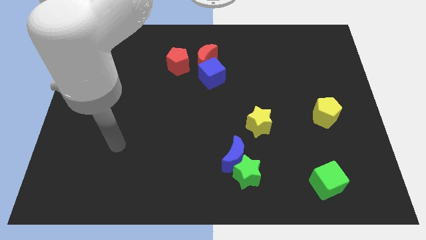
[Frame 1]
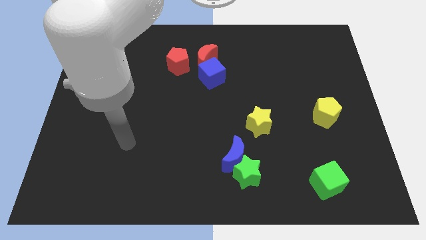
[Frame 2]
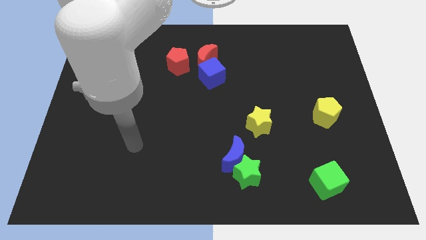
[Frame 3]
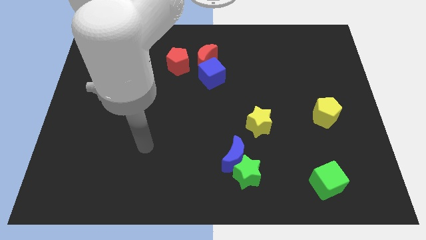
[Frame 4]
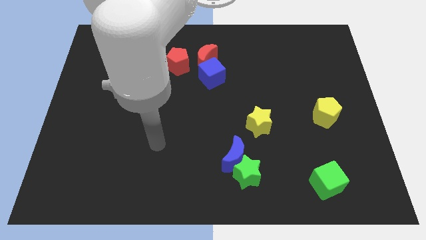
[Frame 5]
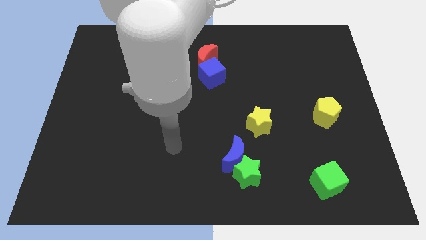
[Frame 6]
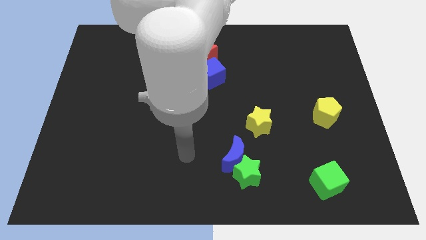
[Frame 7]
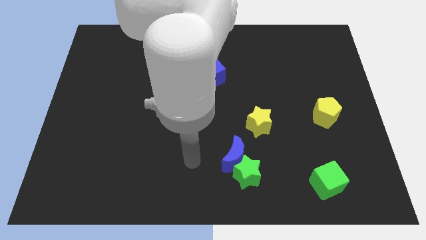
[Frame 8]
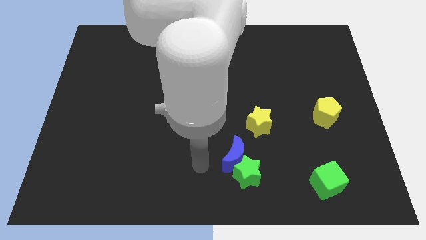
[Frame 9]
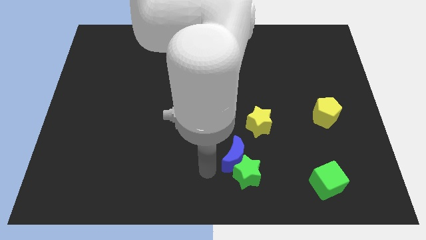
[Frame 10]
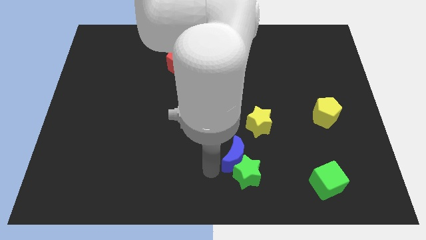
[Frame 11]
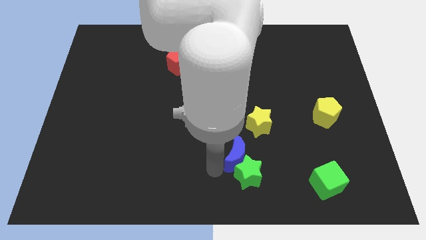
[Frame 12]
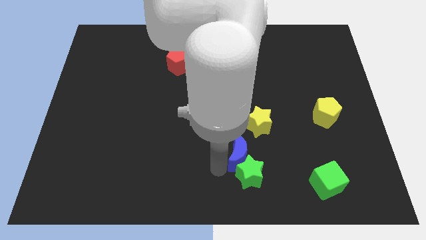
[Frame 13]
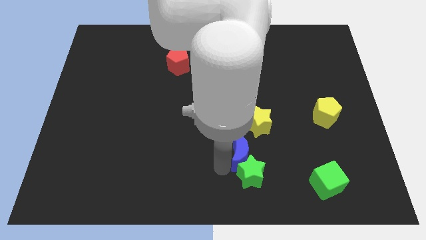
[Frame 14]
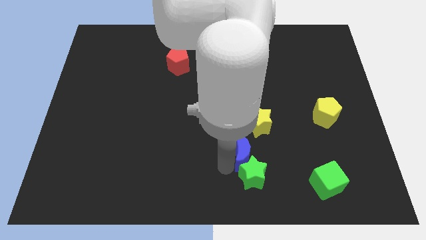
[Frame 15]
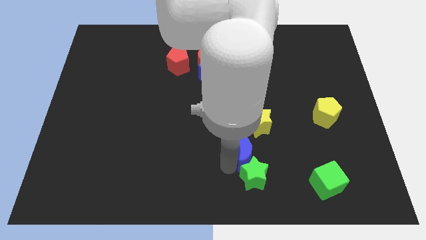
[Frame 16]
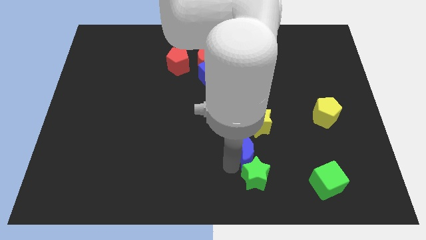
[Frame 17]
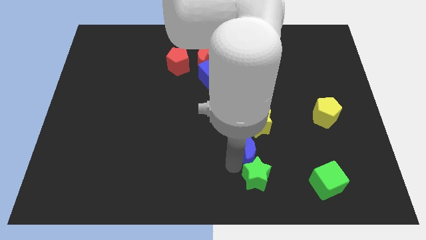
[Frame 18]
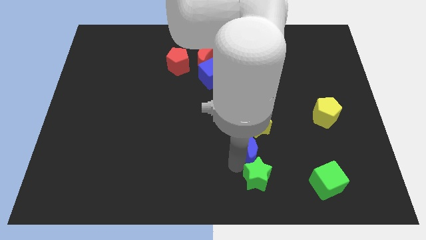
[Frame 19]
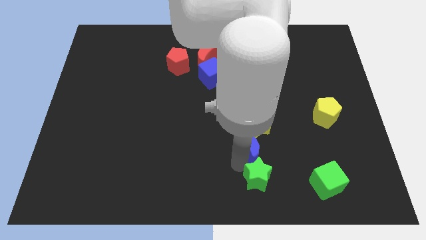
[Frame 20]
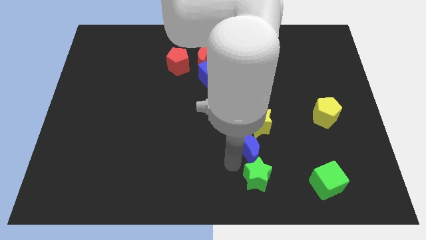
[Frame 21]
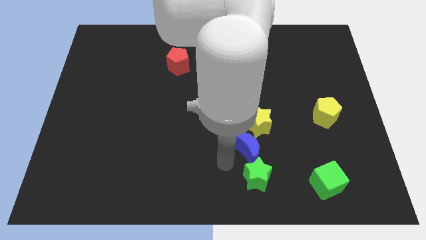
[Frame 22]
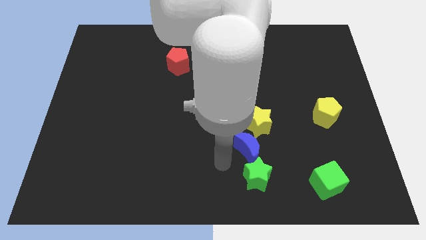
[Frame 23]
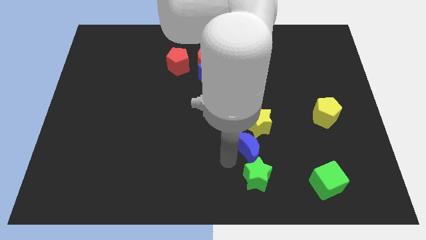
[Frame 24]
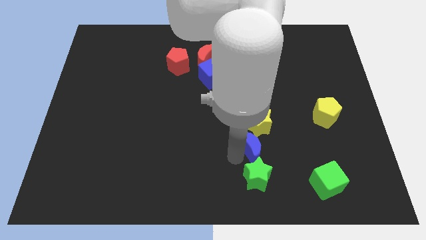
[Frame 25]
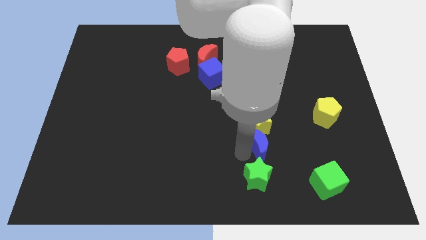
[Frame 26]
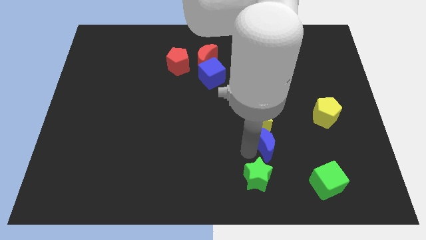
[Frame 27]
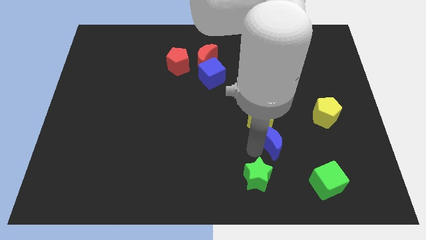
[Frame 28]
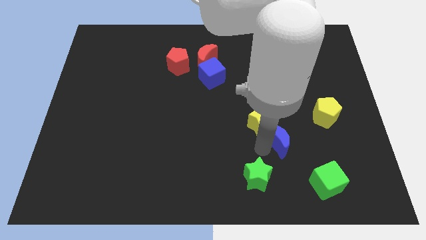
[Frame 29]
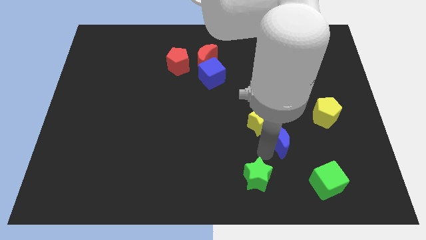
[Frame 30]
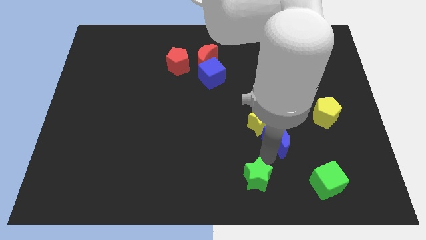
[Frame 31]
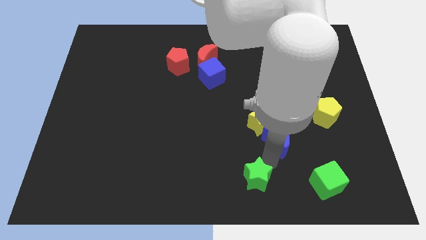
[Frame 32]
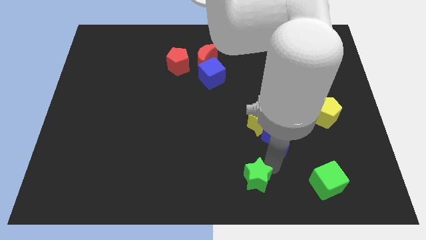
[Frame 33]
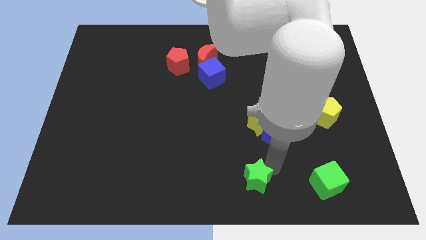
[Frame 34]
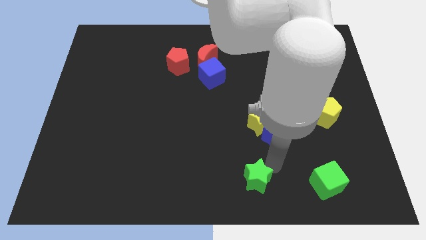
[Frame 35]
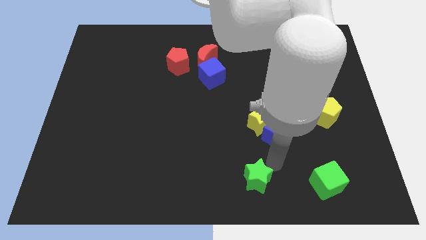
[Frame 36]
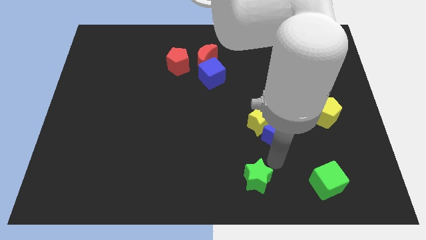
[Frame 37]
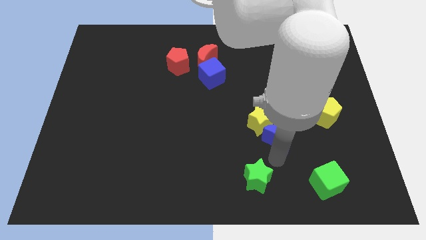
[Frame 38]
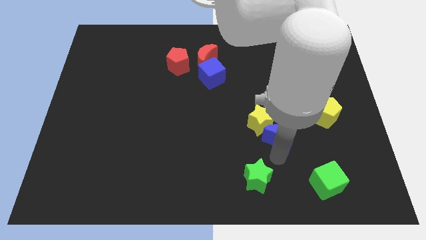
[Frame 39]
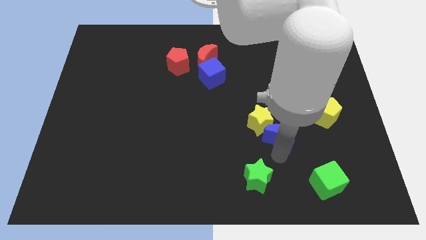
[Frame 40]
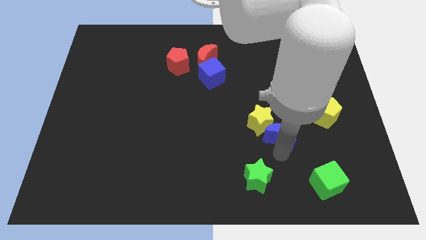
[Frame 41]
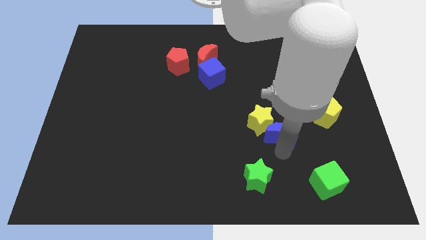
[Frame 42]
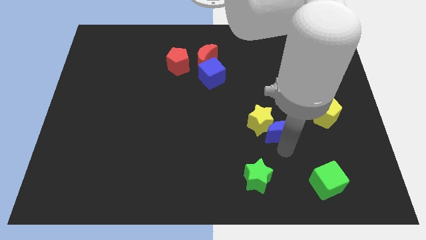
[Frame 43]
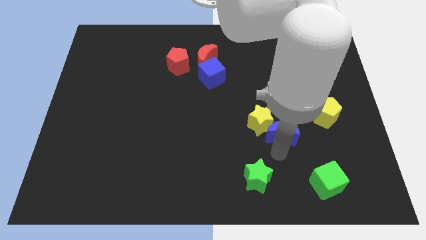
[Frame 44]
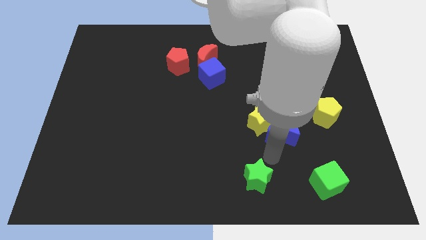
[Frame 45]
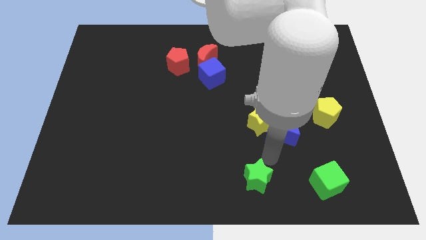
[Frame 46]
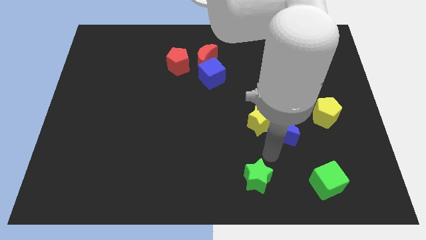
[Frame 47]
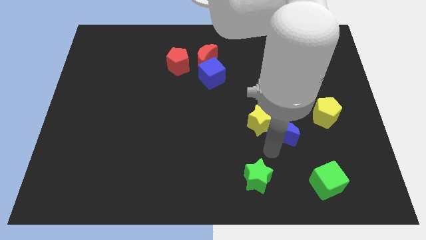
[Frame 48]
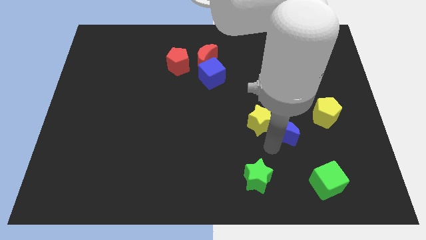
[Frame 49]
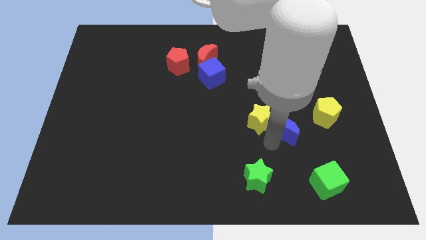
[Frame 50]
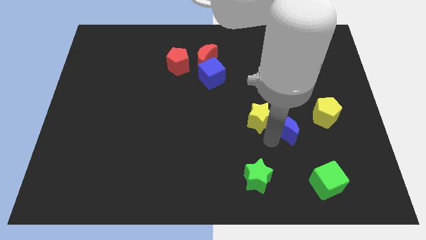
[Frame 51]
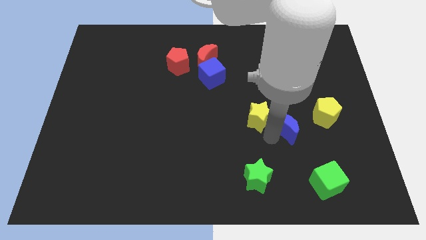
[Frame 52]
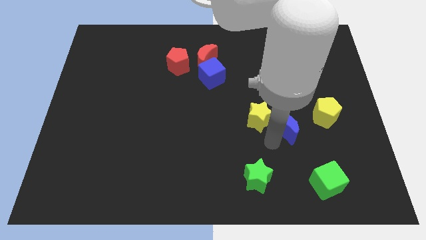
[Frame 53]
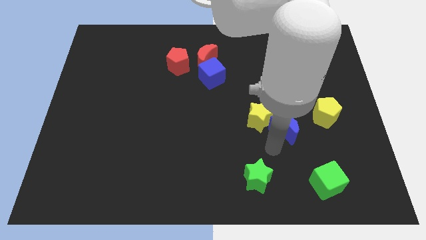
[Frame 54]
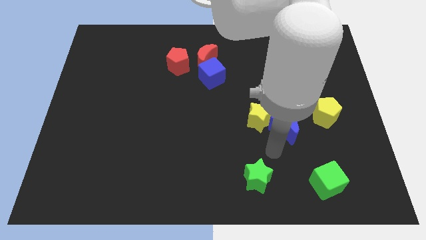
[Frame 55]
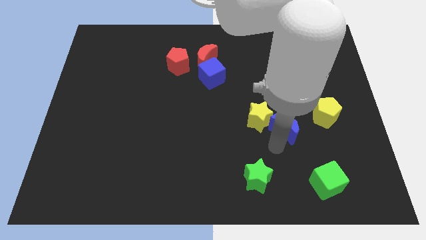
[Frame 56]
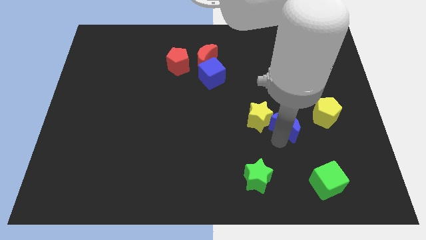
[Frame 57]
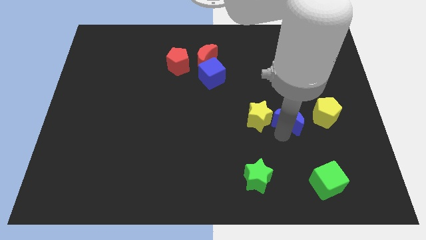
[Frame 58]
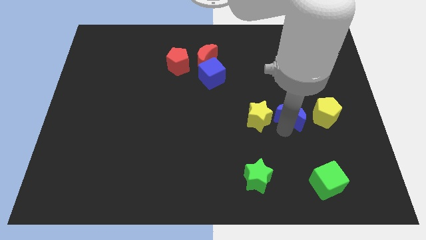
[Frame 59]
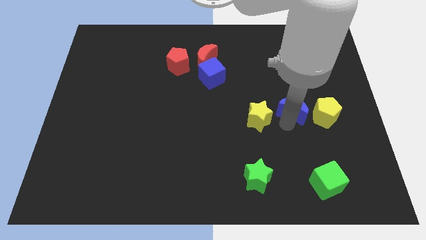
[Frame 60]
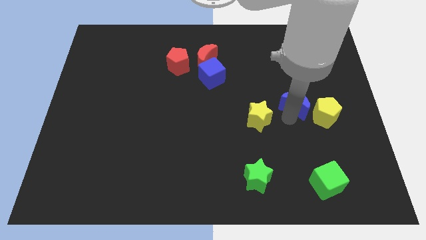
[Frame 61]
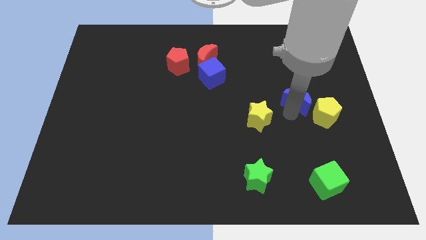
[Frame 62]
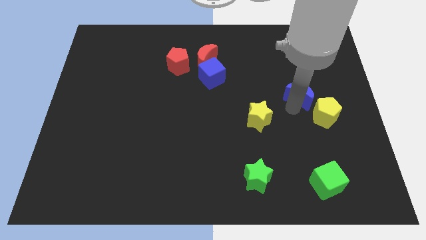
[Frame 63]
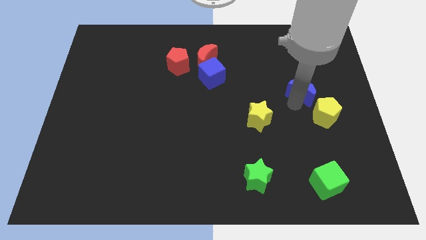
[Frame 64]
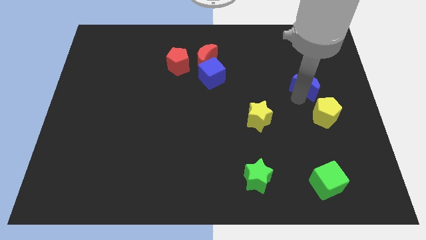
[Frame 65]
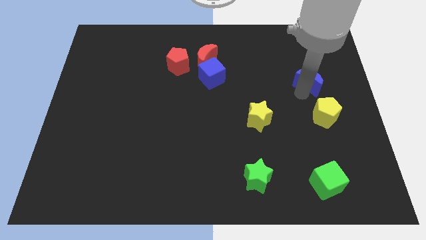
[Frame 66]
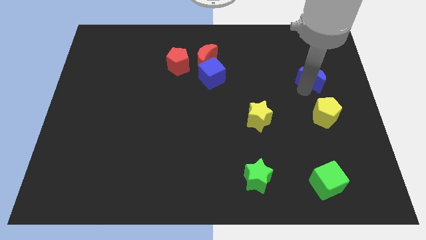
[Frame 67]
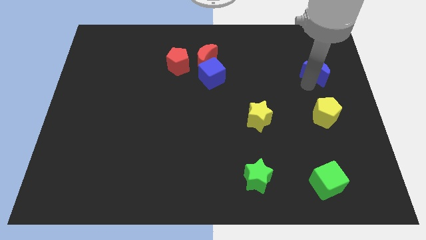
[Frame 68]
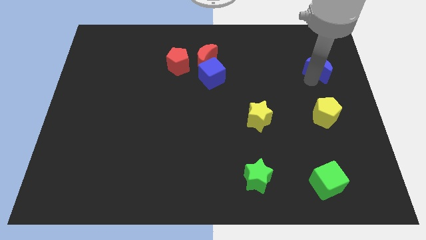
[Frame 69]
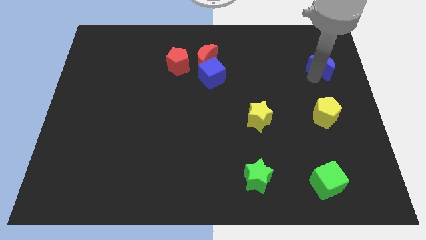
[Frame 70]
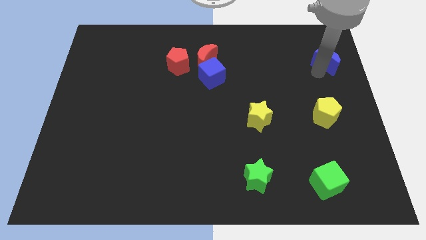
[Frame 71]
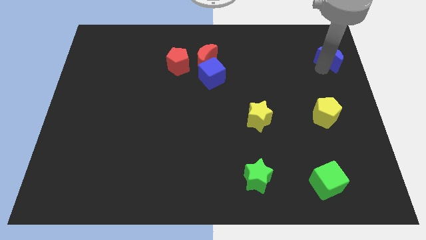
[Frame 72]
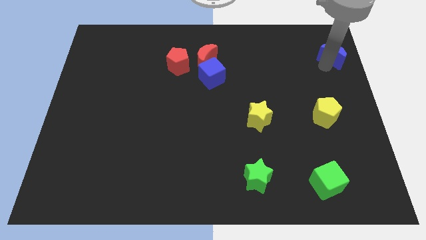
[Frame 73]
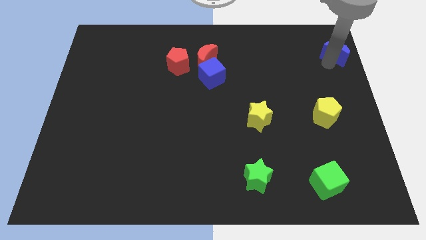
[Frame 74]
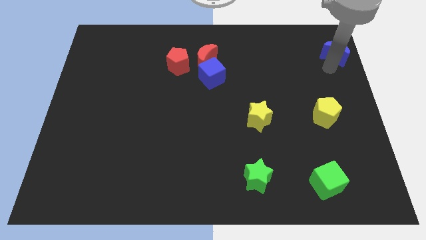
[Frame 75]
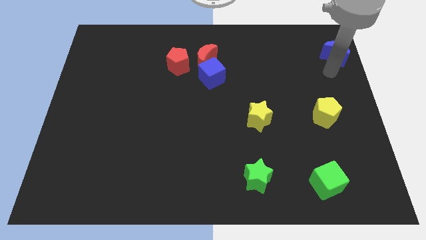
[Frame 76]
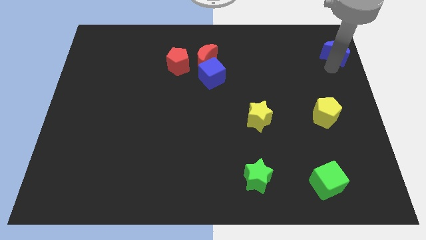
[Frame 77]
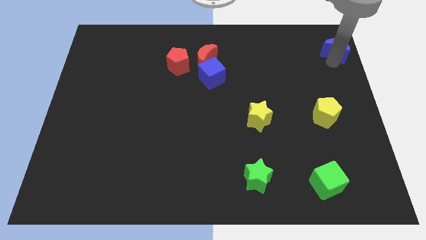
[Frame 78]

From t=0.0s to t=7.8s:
push the blue moon to the upper right corner
